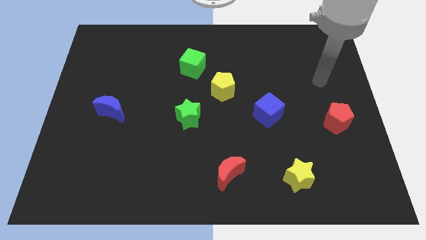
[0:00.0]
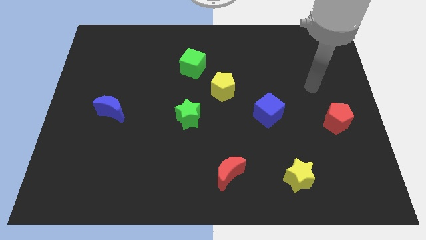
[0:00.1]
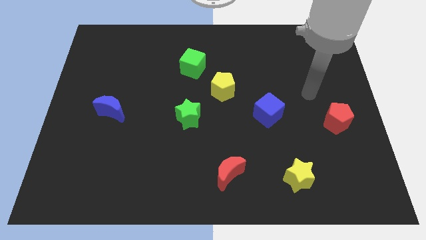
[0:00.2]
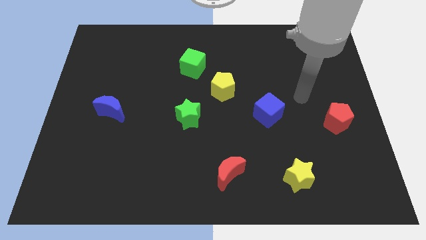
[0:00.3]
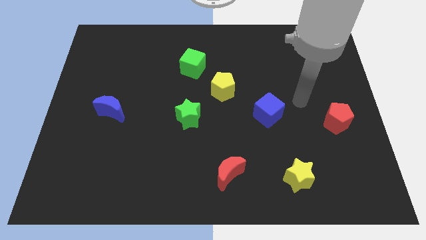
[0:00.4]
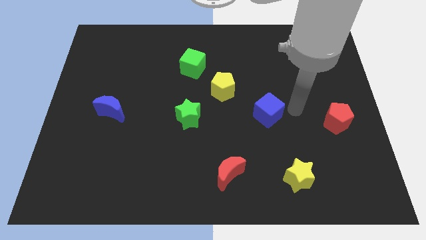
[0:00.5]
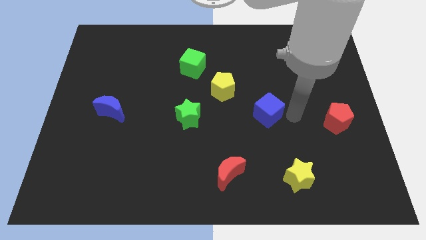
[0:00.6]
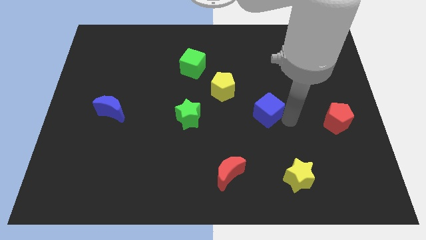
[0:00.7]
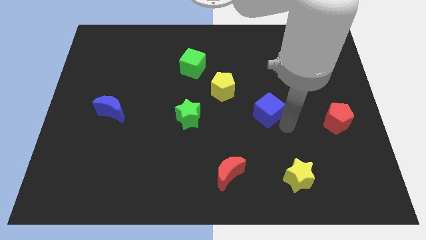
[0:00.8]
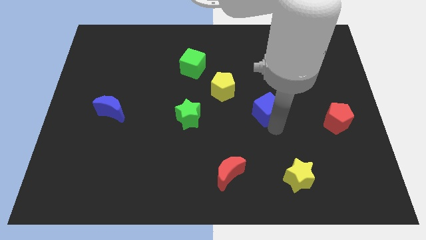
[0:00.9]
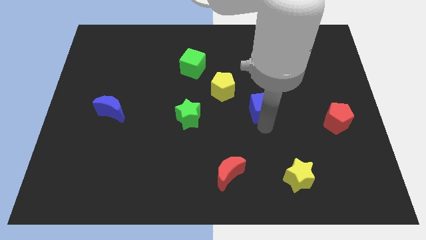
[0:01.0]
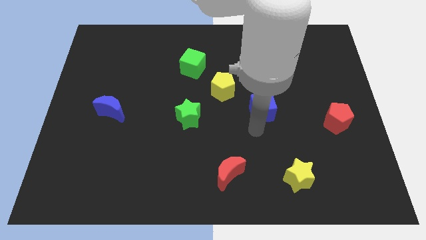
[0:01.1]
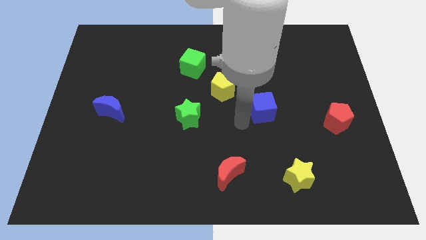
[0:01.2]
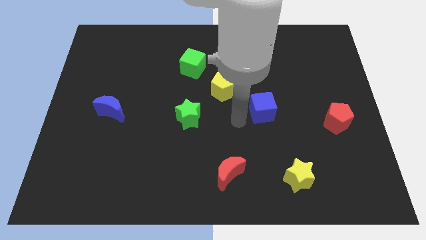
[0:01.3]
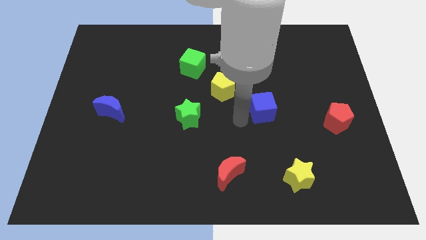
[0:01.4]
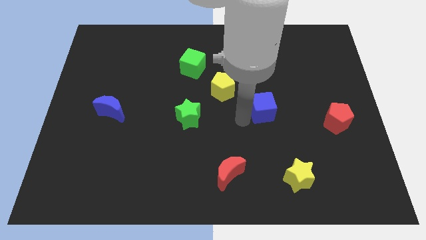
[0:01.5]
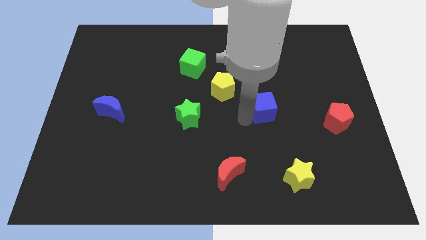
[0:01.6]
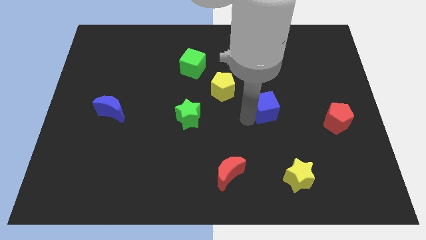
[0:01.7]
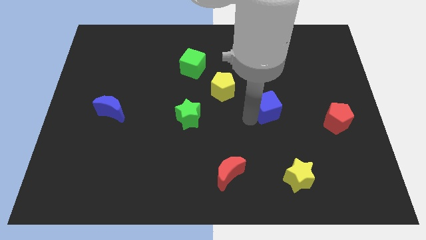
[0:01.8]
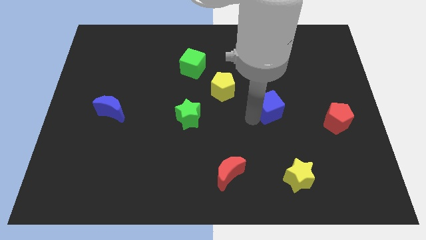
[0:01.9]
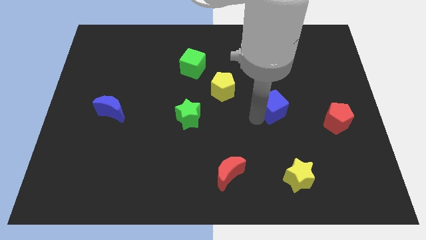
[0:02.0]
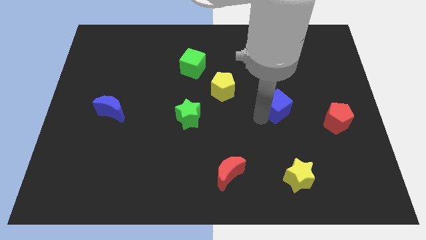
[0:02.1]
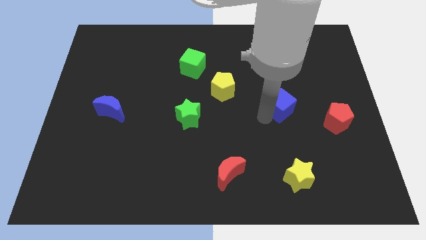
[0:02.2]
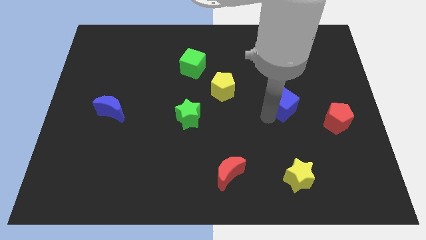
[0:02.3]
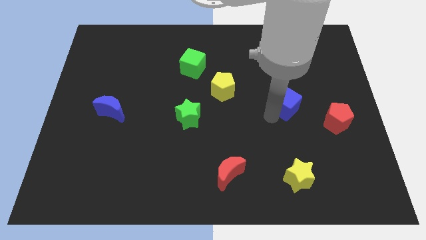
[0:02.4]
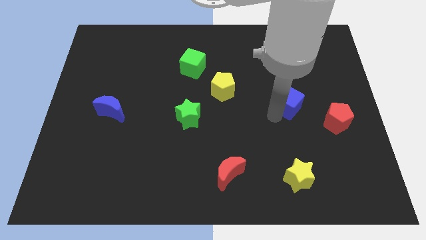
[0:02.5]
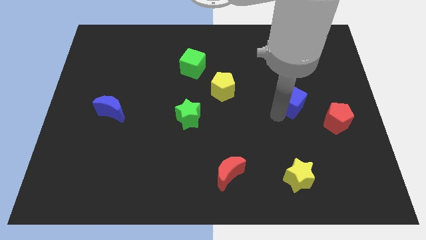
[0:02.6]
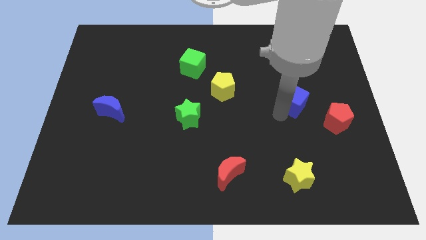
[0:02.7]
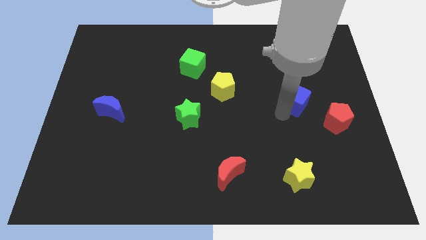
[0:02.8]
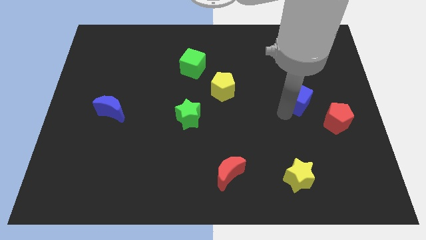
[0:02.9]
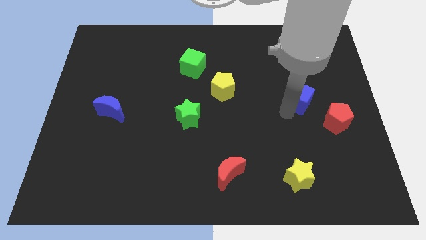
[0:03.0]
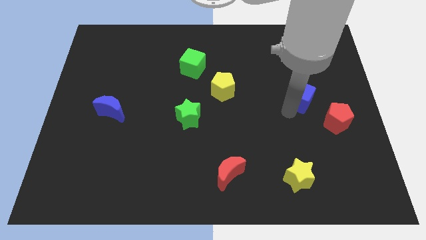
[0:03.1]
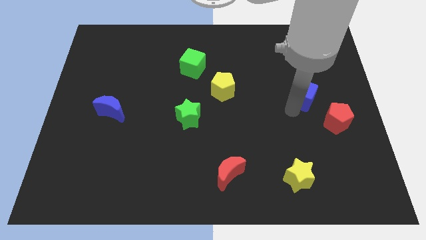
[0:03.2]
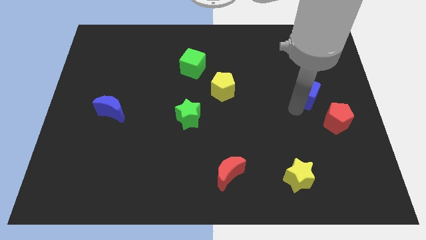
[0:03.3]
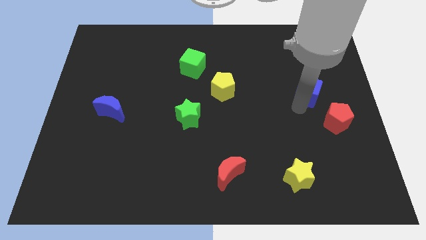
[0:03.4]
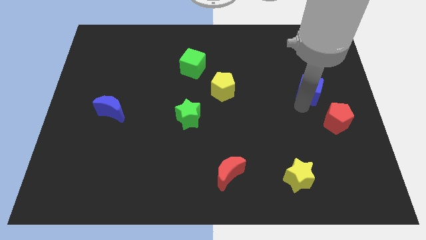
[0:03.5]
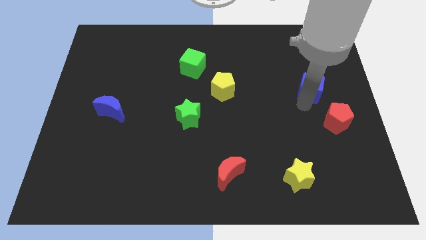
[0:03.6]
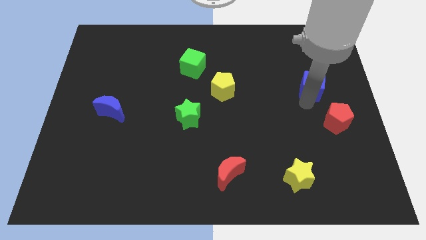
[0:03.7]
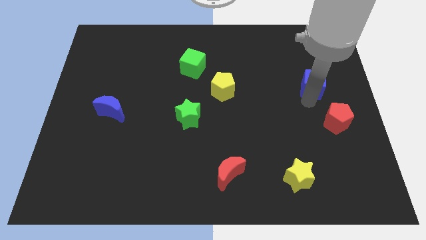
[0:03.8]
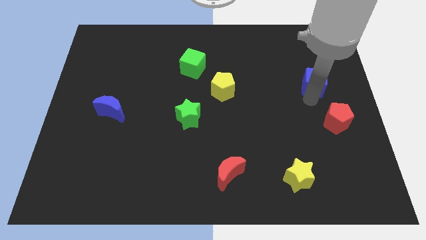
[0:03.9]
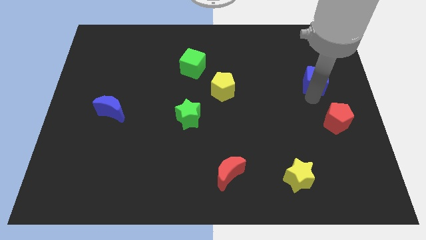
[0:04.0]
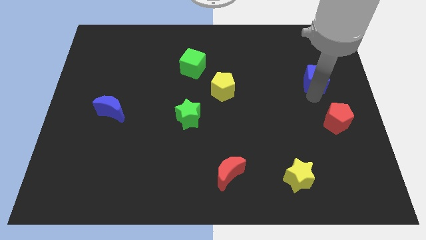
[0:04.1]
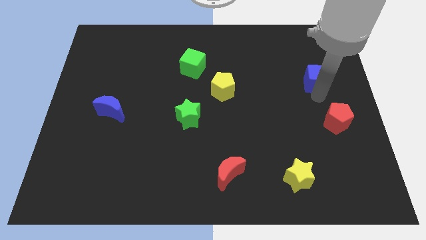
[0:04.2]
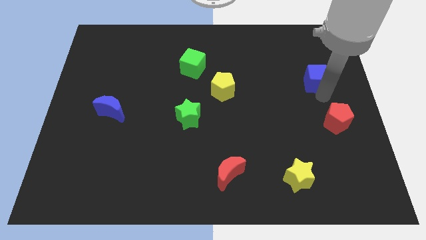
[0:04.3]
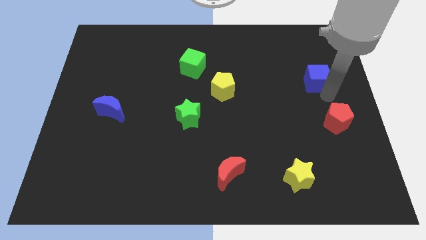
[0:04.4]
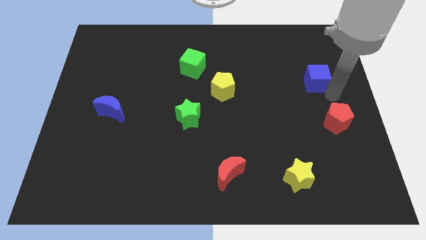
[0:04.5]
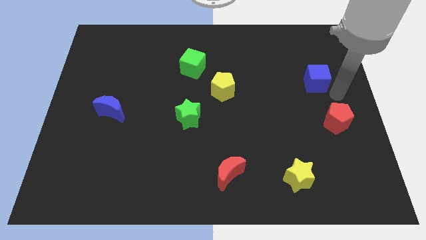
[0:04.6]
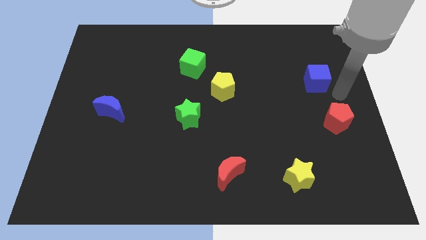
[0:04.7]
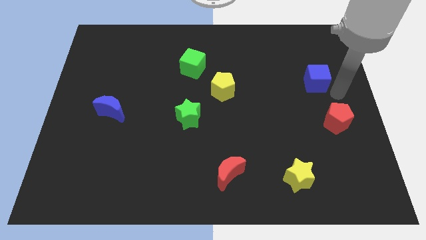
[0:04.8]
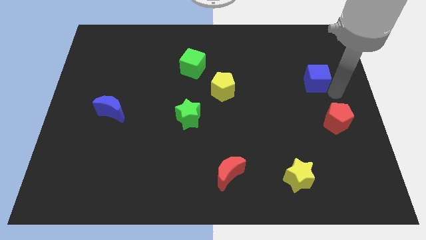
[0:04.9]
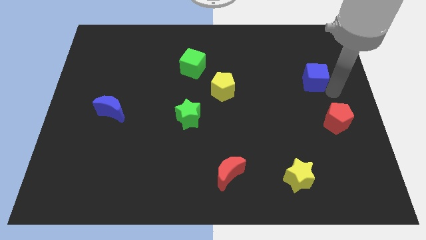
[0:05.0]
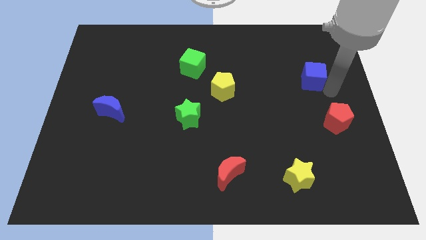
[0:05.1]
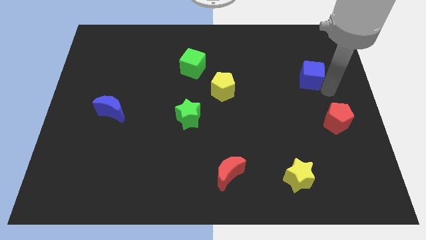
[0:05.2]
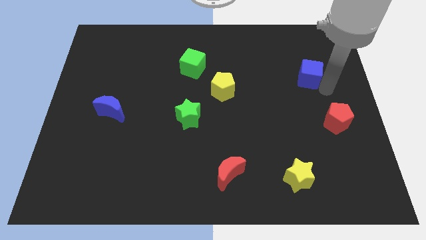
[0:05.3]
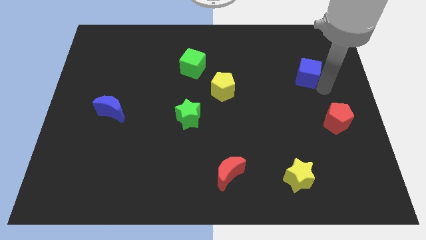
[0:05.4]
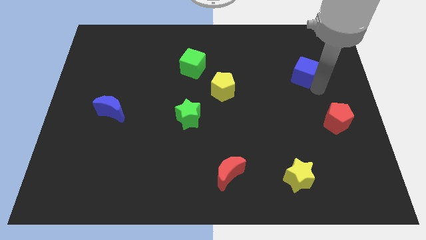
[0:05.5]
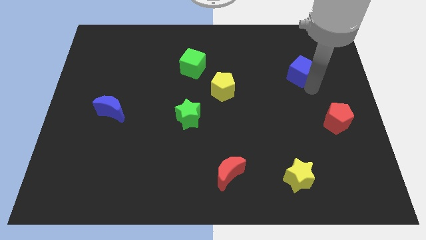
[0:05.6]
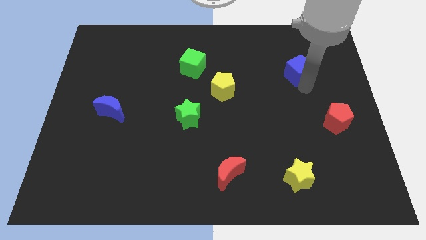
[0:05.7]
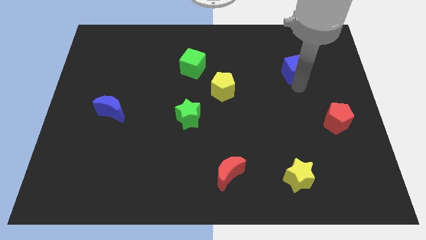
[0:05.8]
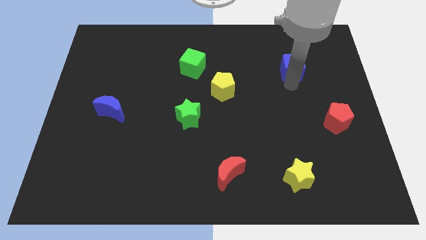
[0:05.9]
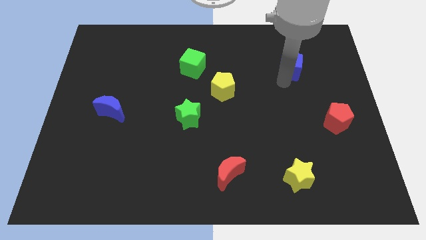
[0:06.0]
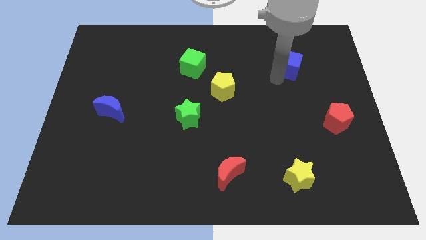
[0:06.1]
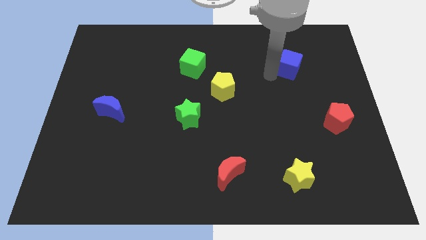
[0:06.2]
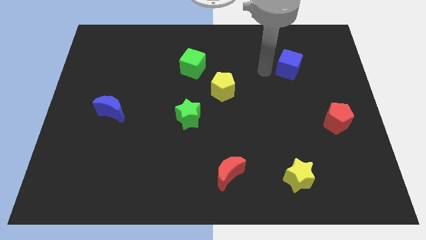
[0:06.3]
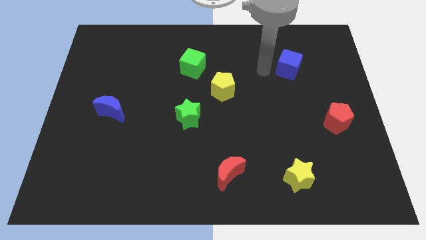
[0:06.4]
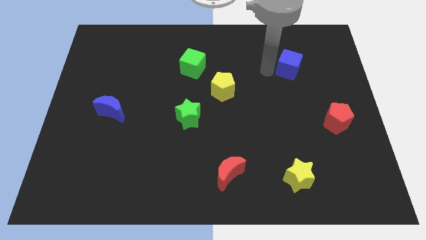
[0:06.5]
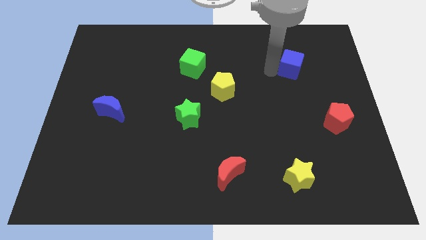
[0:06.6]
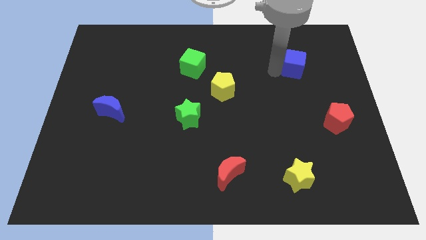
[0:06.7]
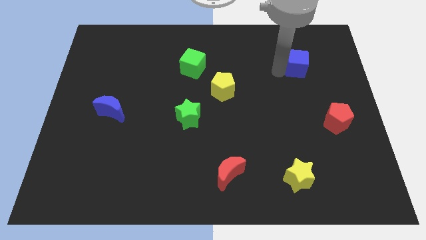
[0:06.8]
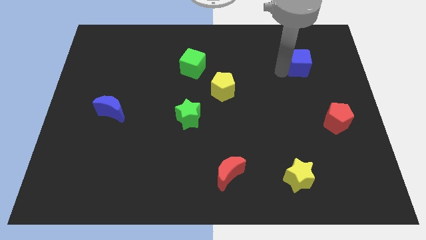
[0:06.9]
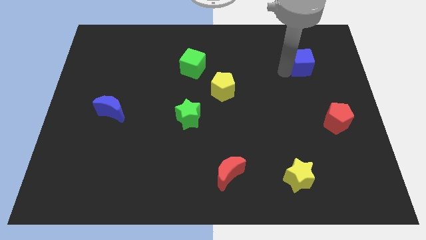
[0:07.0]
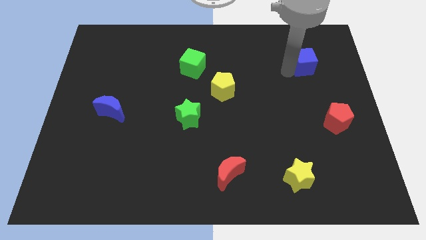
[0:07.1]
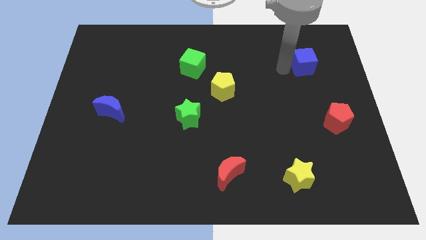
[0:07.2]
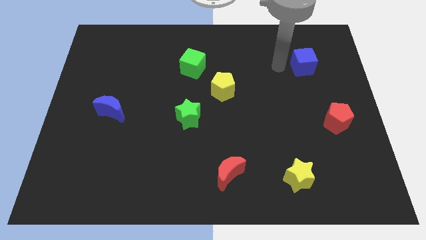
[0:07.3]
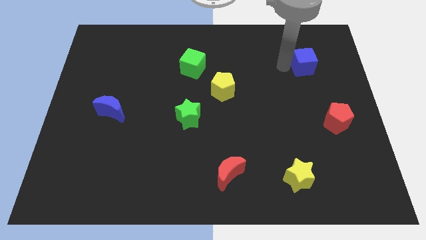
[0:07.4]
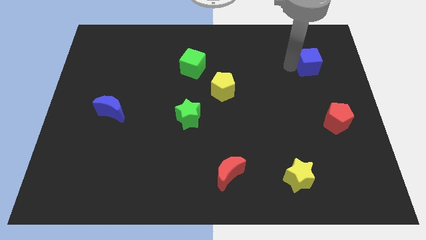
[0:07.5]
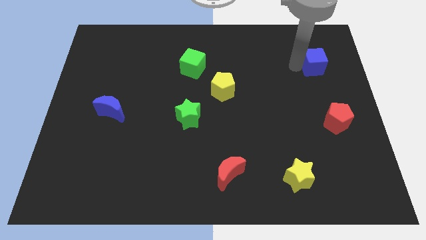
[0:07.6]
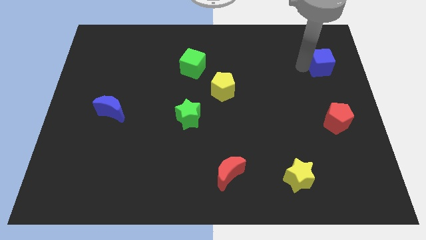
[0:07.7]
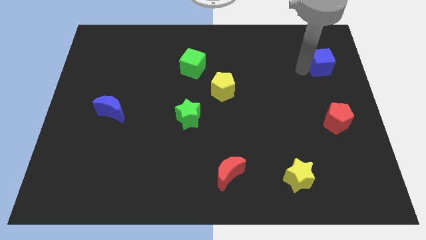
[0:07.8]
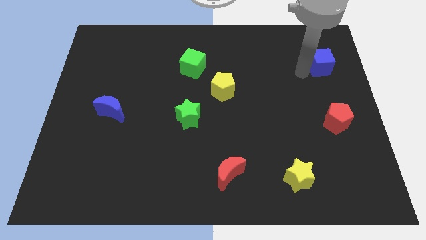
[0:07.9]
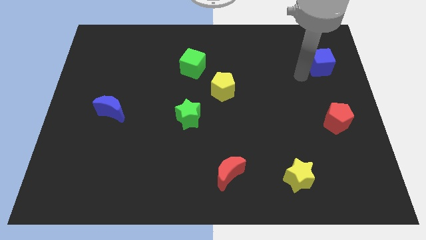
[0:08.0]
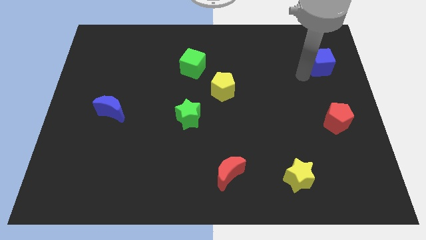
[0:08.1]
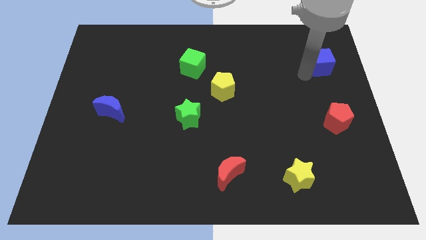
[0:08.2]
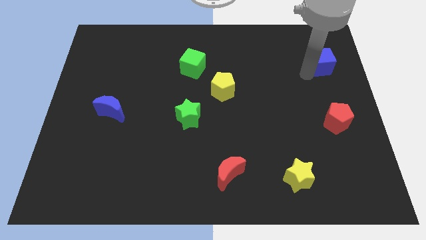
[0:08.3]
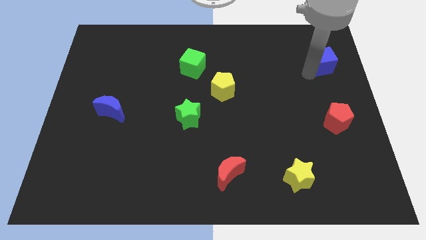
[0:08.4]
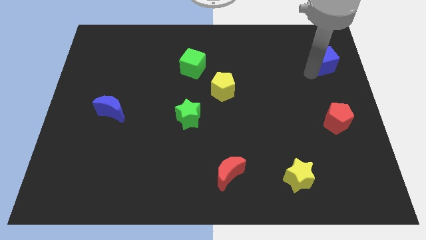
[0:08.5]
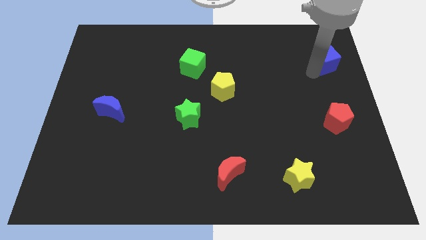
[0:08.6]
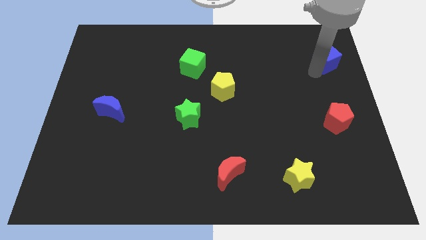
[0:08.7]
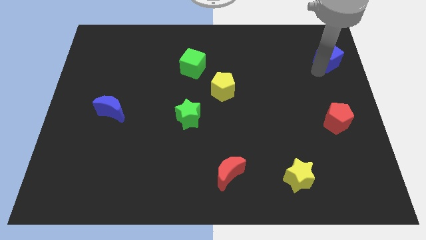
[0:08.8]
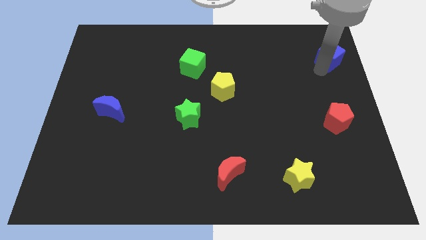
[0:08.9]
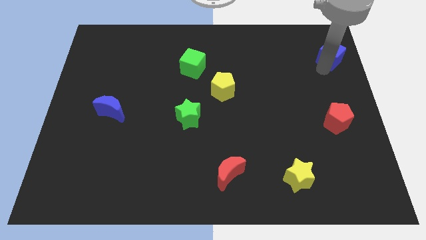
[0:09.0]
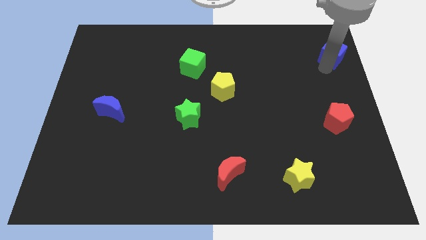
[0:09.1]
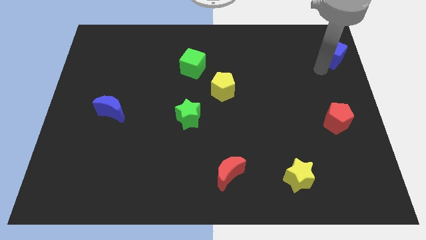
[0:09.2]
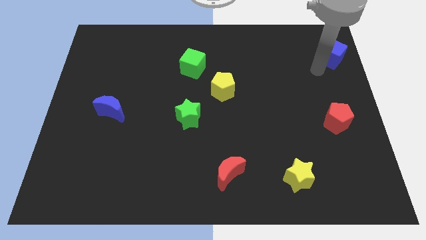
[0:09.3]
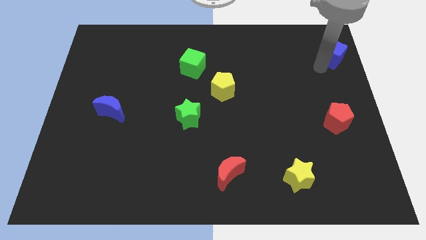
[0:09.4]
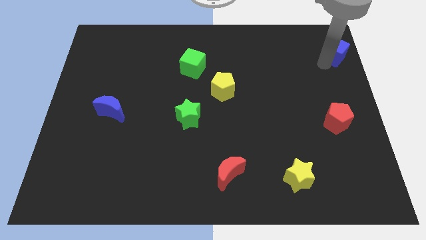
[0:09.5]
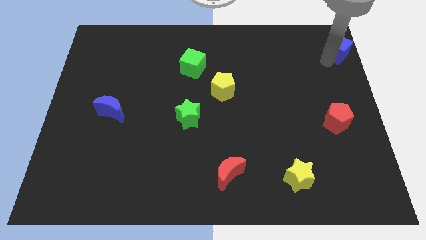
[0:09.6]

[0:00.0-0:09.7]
put the blue cube to the upper right corner
